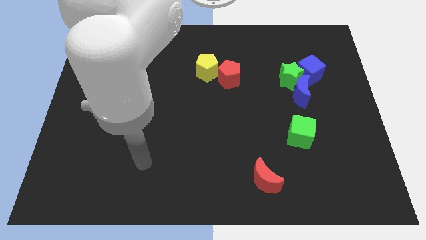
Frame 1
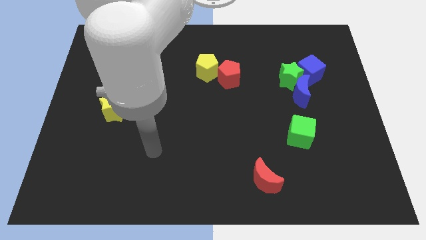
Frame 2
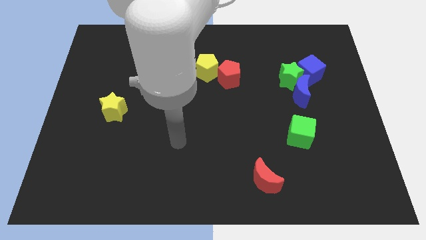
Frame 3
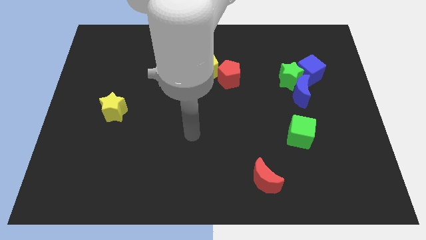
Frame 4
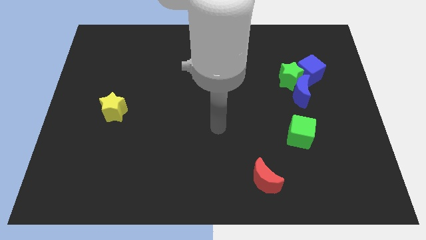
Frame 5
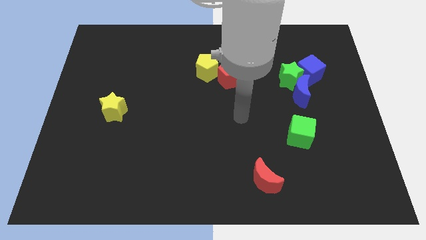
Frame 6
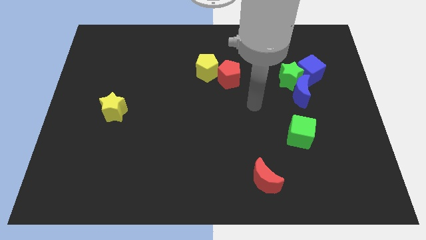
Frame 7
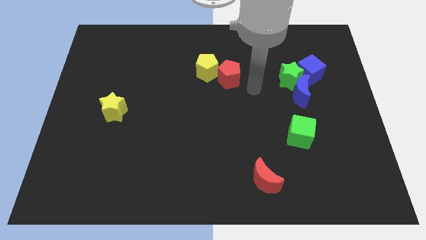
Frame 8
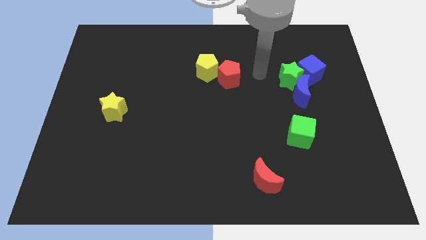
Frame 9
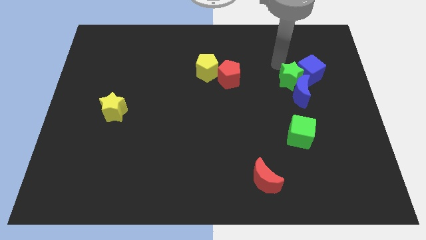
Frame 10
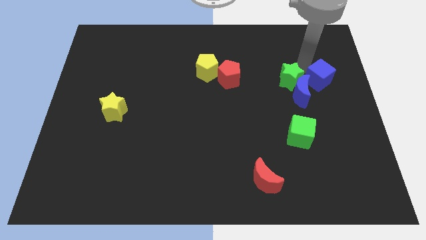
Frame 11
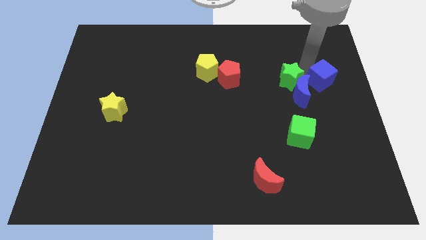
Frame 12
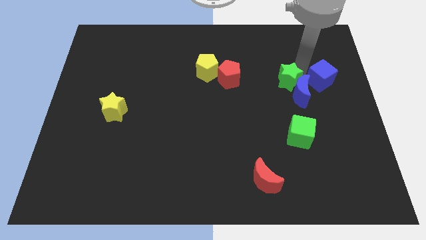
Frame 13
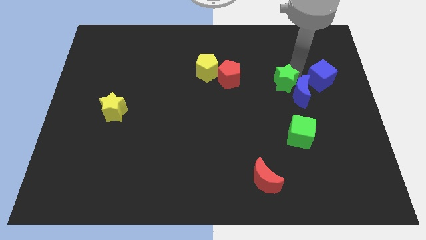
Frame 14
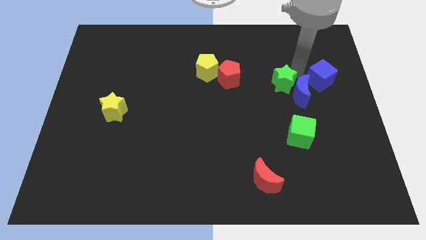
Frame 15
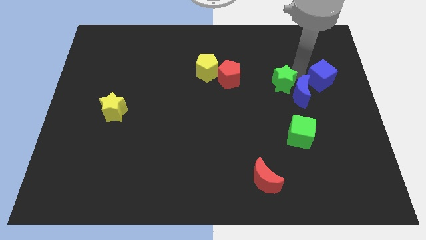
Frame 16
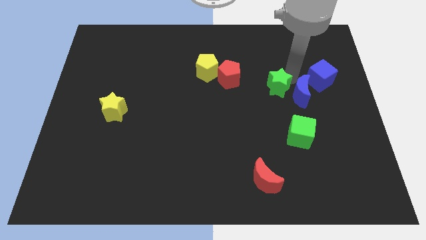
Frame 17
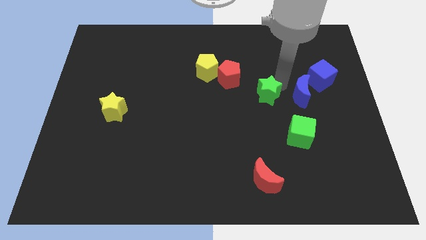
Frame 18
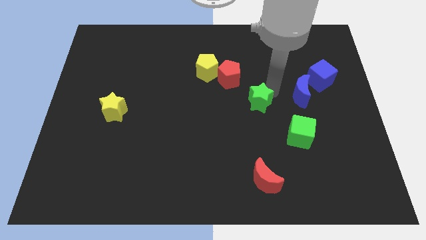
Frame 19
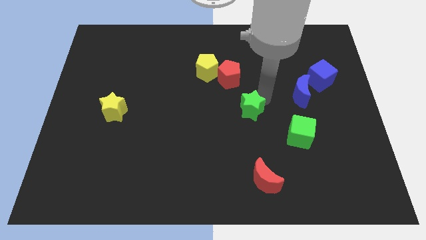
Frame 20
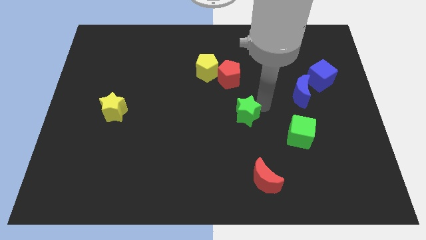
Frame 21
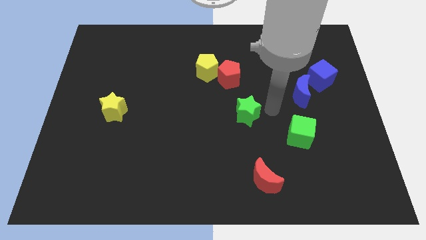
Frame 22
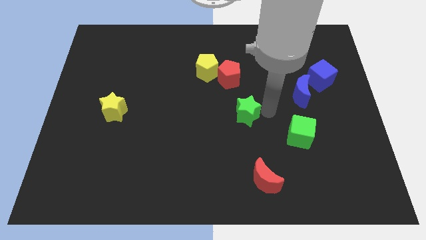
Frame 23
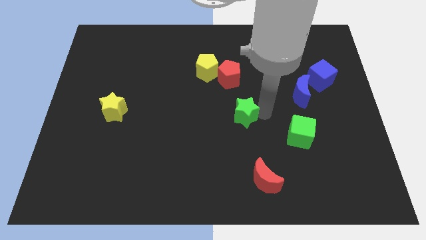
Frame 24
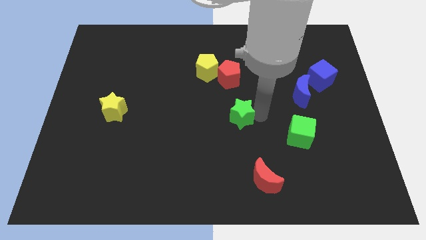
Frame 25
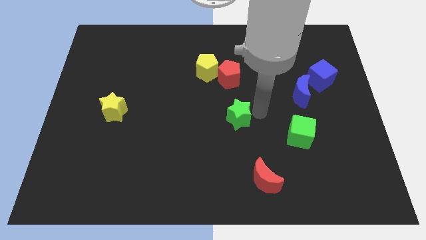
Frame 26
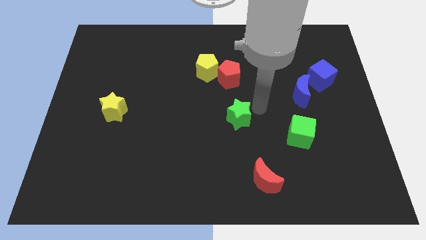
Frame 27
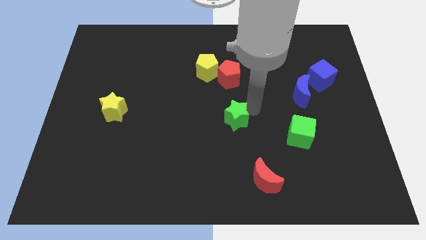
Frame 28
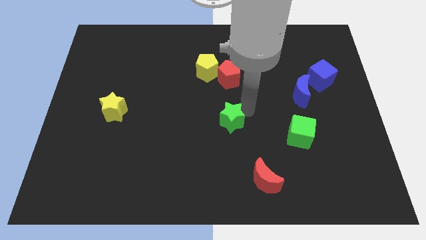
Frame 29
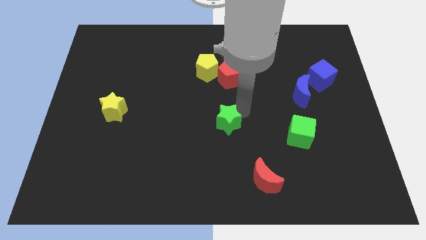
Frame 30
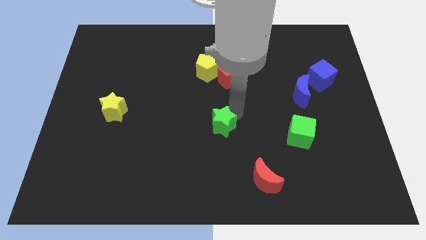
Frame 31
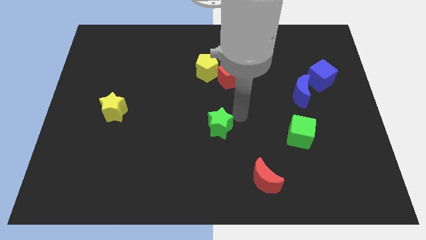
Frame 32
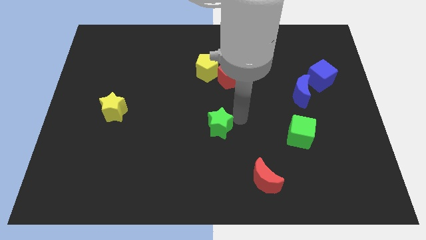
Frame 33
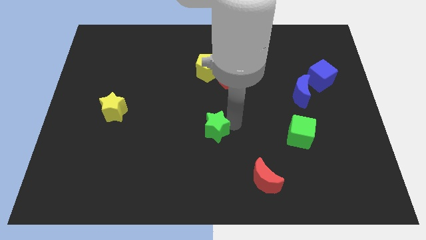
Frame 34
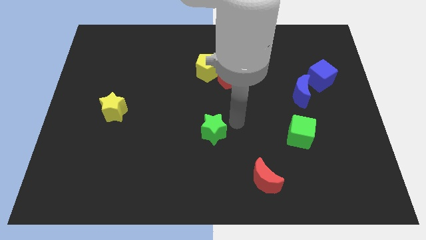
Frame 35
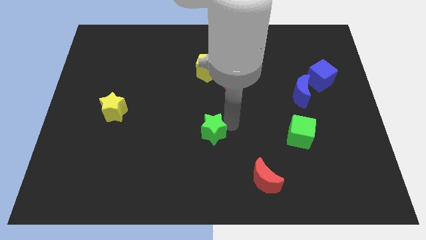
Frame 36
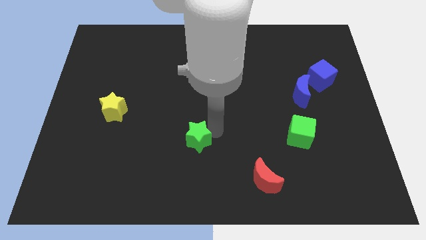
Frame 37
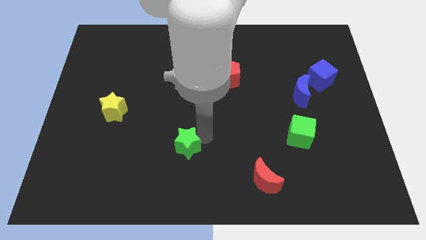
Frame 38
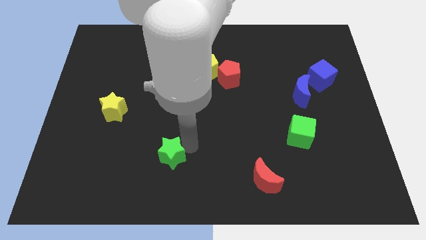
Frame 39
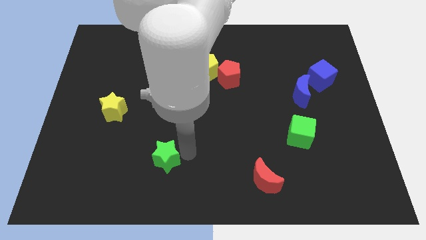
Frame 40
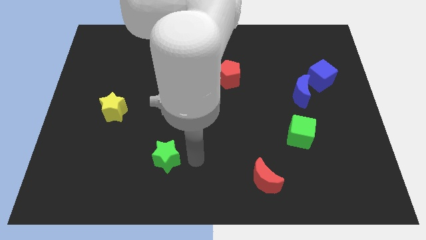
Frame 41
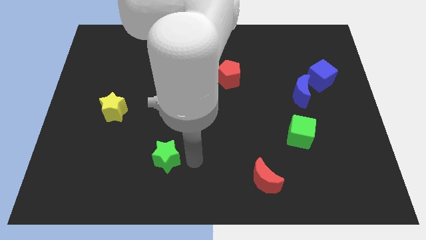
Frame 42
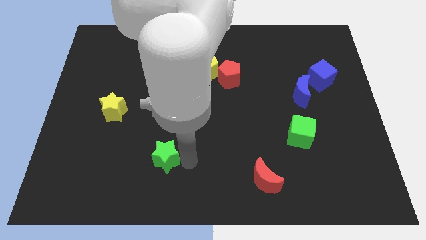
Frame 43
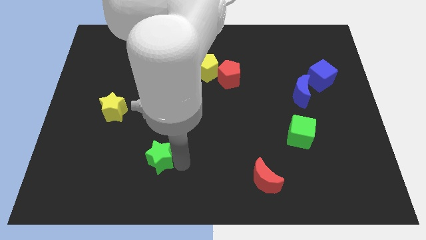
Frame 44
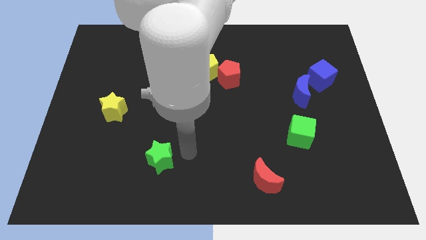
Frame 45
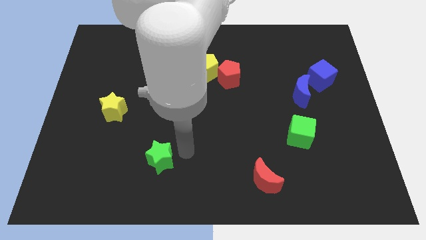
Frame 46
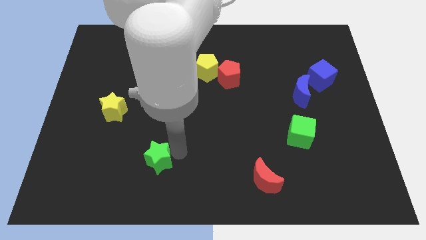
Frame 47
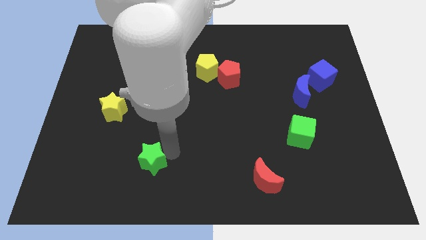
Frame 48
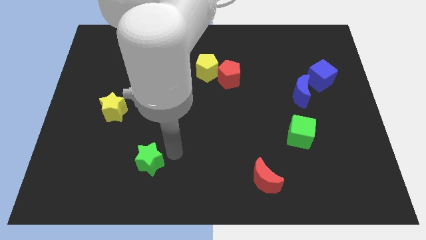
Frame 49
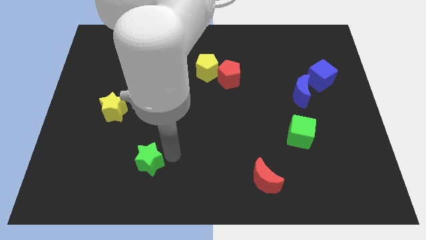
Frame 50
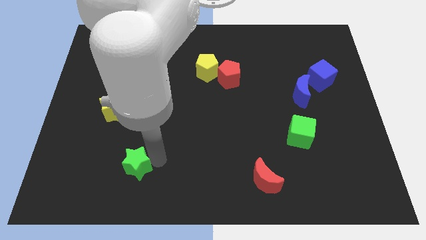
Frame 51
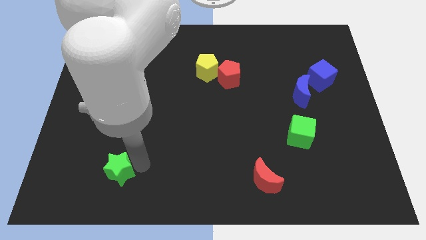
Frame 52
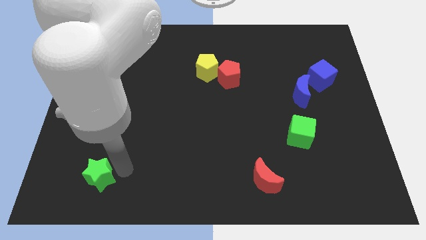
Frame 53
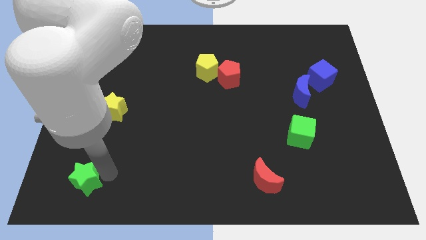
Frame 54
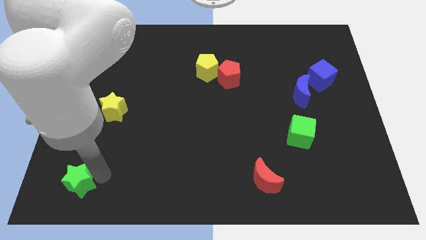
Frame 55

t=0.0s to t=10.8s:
move the green star to the lower left corner
